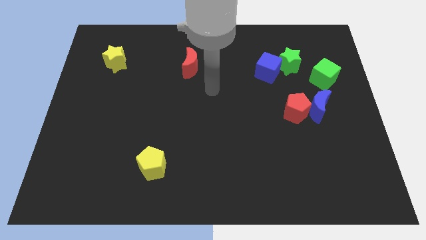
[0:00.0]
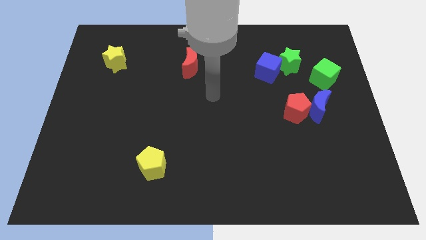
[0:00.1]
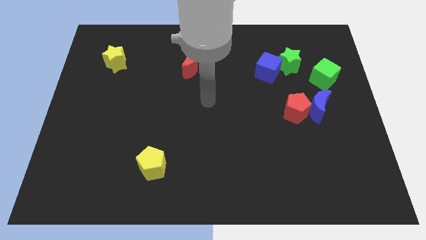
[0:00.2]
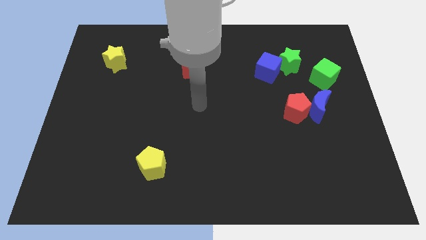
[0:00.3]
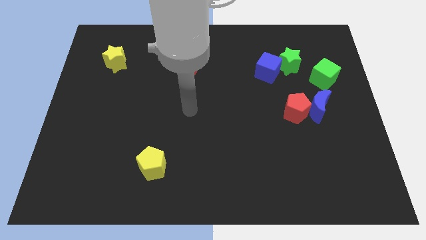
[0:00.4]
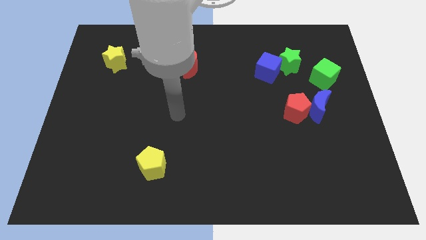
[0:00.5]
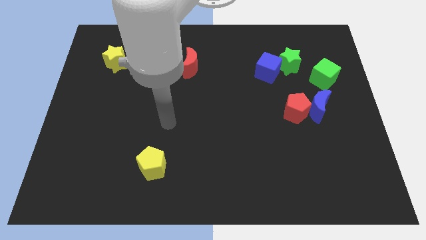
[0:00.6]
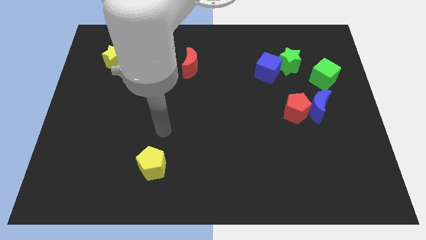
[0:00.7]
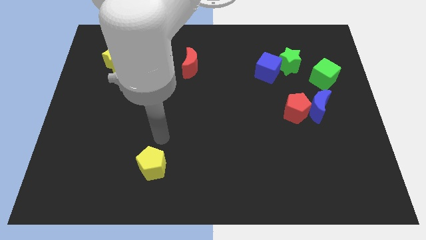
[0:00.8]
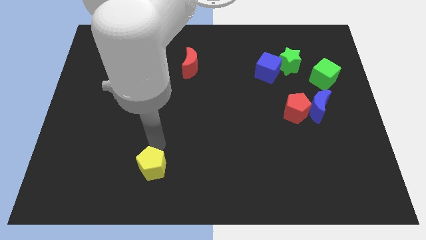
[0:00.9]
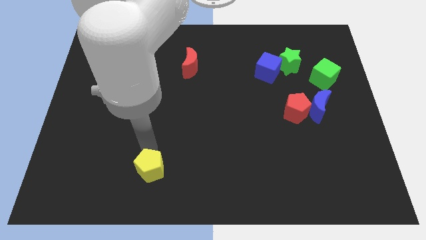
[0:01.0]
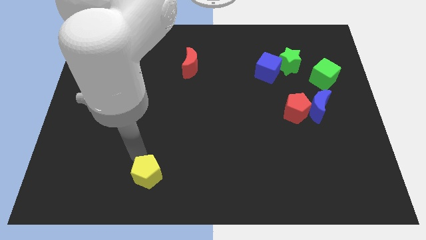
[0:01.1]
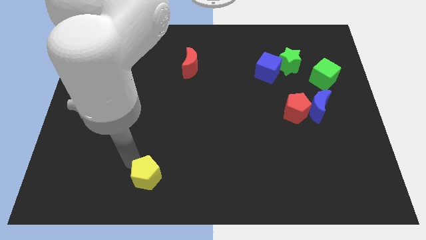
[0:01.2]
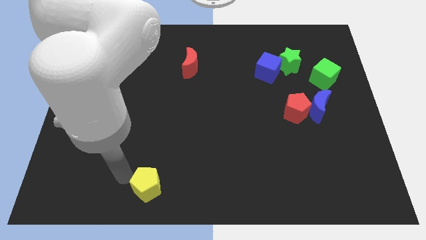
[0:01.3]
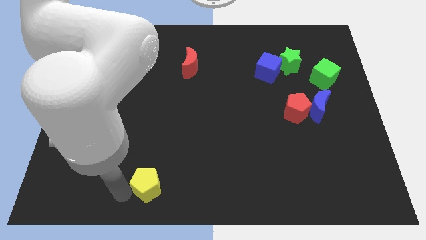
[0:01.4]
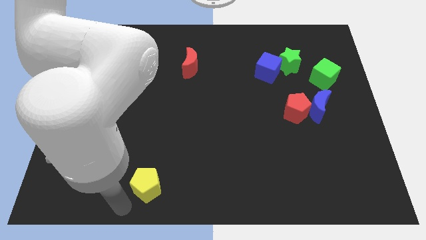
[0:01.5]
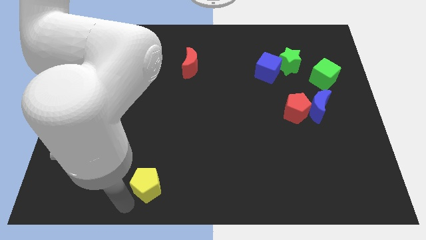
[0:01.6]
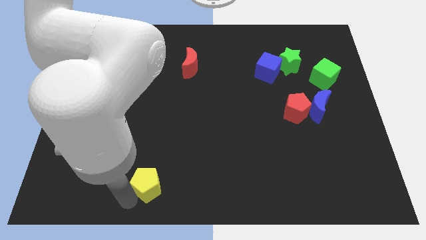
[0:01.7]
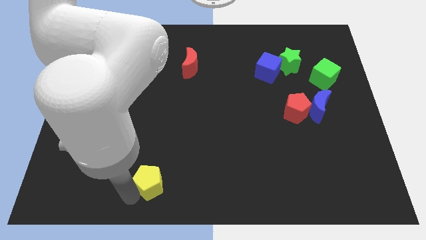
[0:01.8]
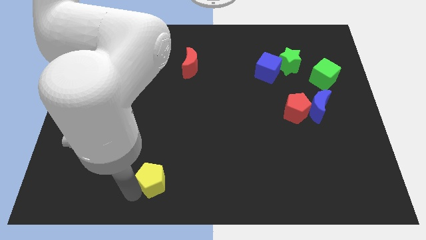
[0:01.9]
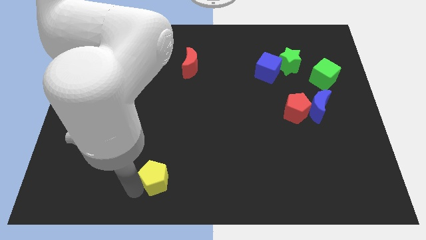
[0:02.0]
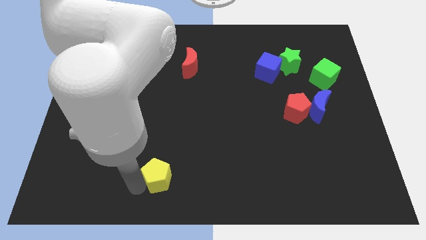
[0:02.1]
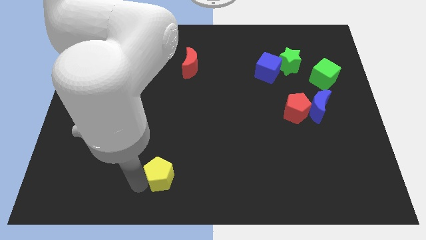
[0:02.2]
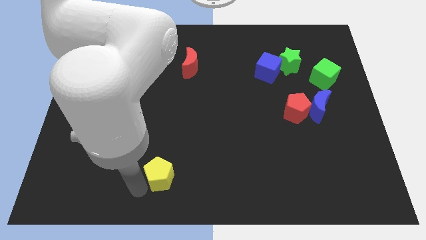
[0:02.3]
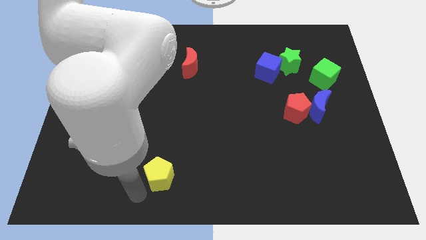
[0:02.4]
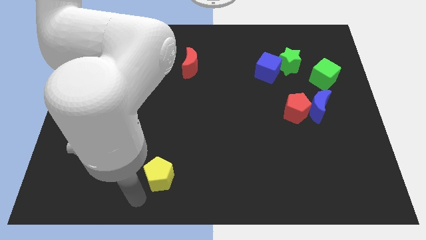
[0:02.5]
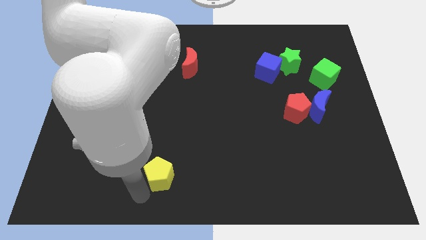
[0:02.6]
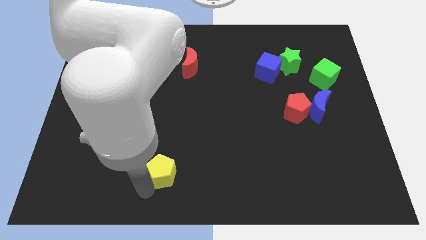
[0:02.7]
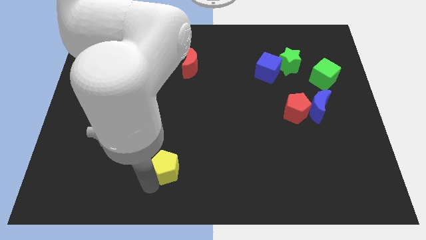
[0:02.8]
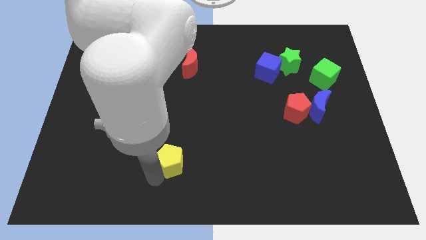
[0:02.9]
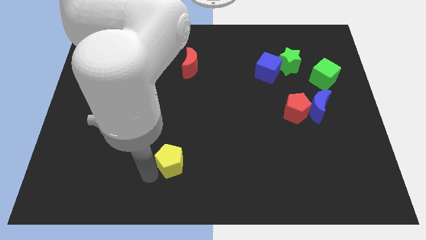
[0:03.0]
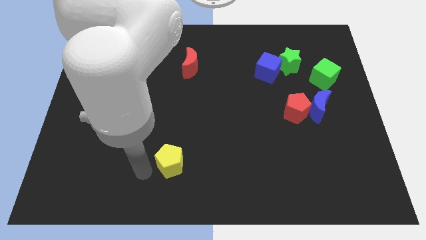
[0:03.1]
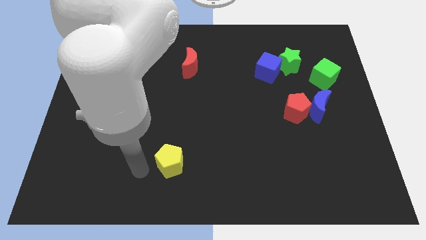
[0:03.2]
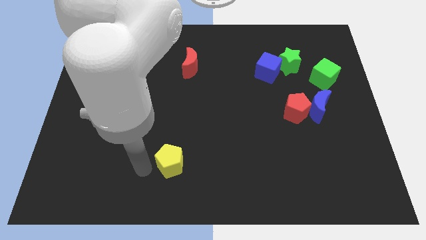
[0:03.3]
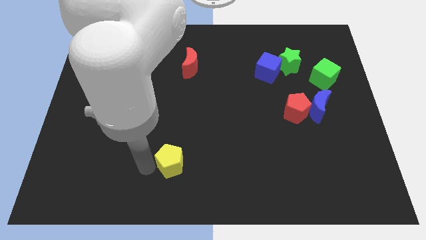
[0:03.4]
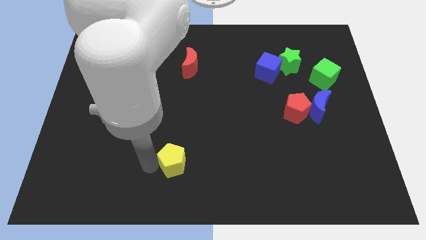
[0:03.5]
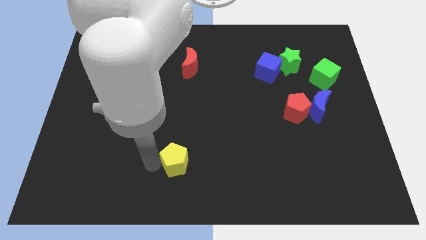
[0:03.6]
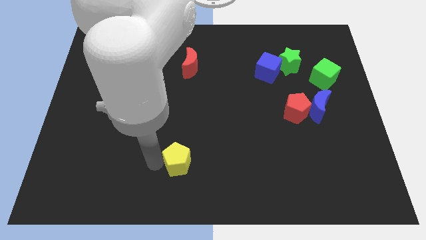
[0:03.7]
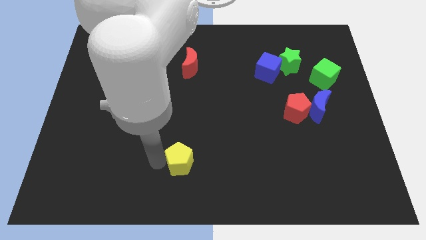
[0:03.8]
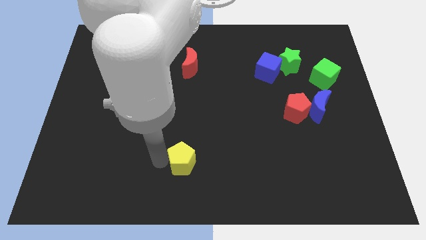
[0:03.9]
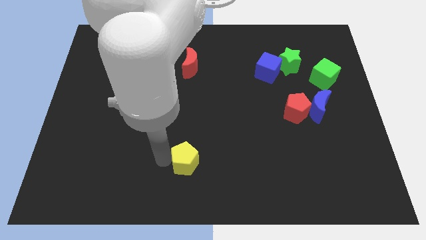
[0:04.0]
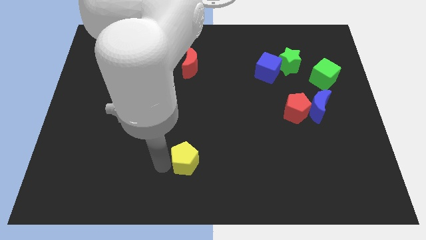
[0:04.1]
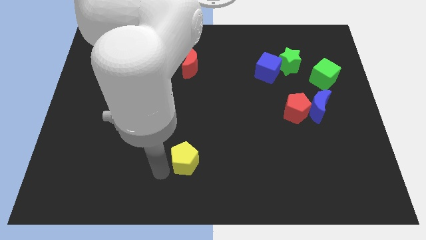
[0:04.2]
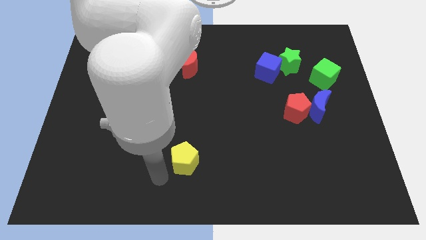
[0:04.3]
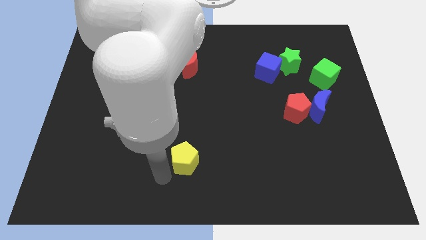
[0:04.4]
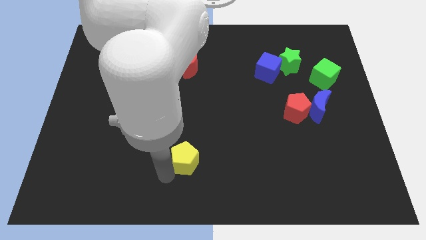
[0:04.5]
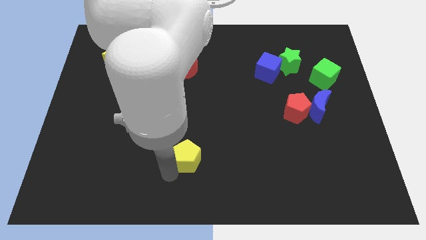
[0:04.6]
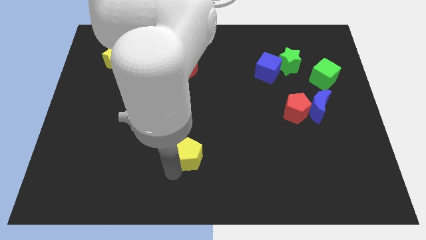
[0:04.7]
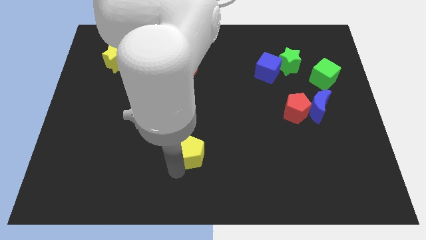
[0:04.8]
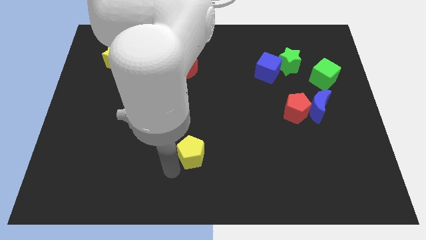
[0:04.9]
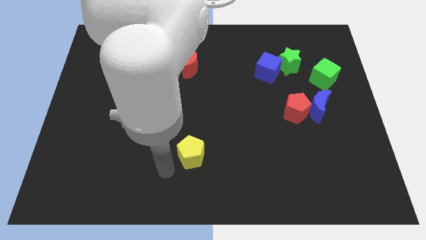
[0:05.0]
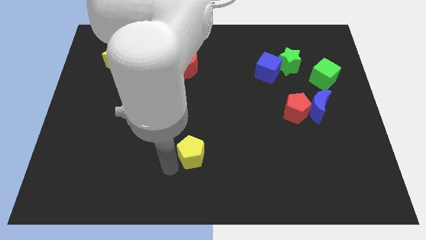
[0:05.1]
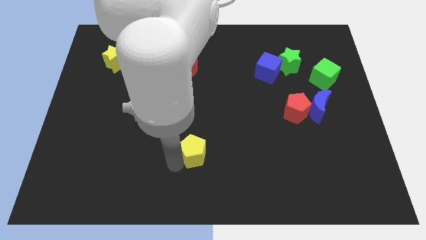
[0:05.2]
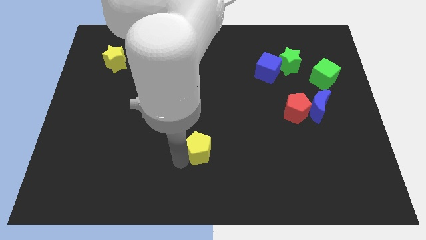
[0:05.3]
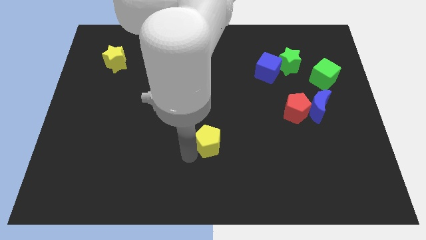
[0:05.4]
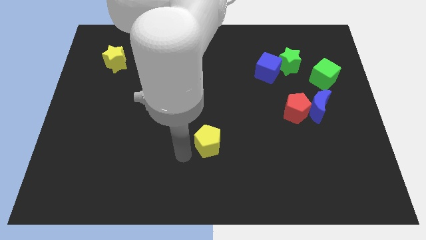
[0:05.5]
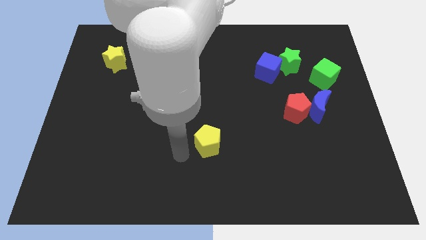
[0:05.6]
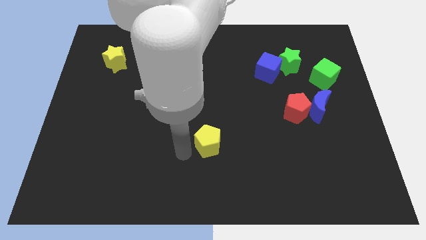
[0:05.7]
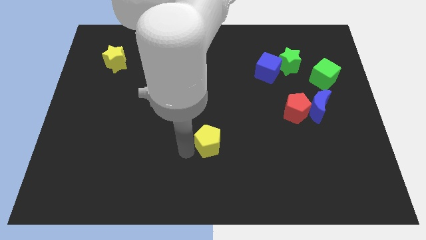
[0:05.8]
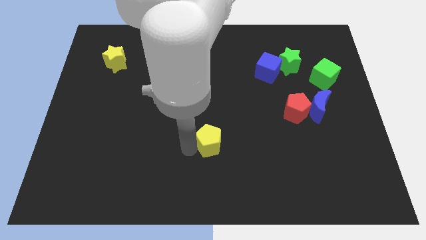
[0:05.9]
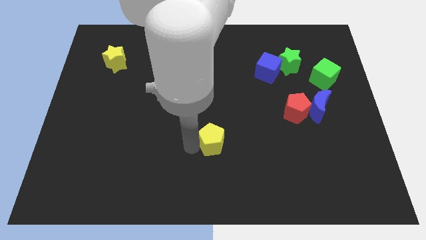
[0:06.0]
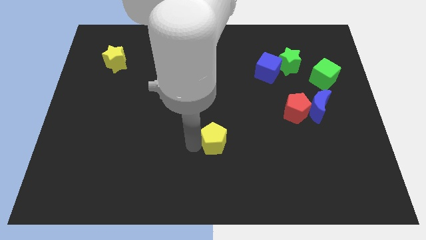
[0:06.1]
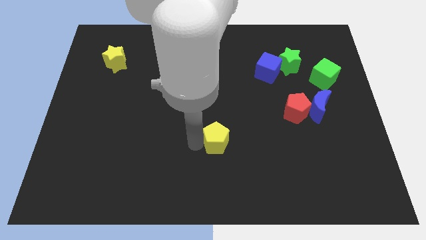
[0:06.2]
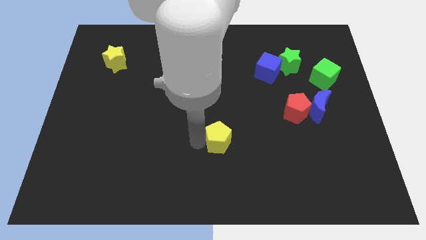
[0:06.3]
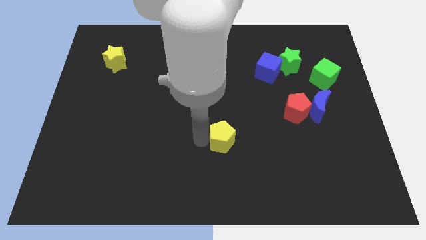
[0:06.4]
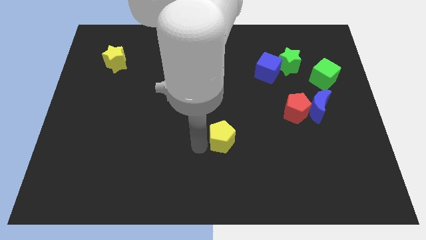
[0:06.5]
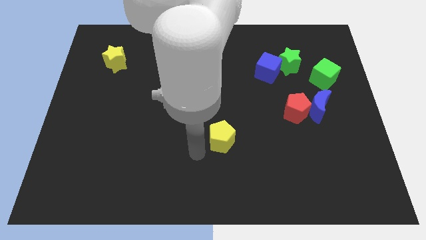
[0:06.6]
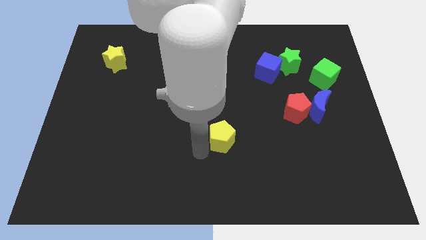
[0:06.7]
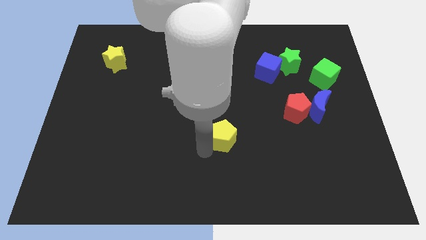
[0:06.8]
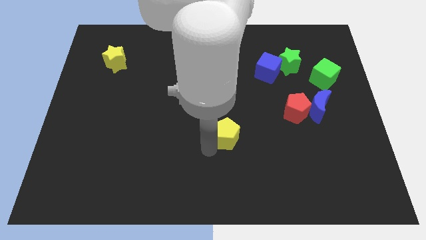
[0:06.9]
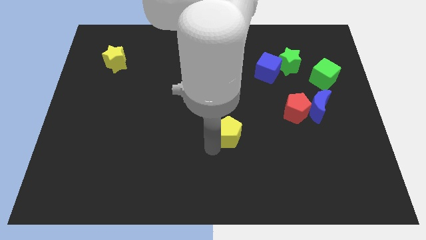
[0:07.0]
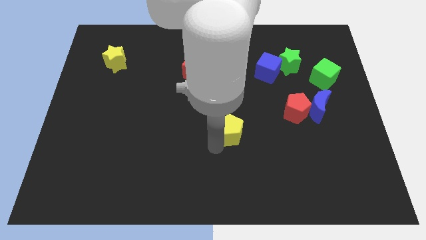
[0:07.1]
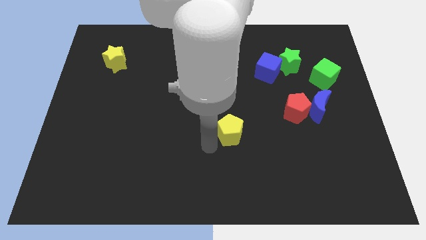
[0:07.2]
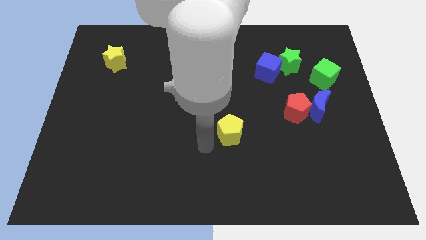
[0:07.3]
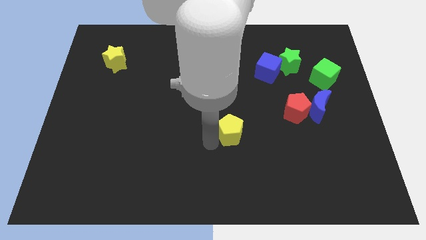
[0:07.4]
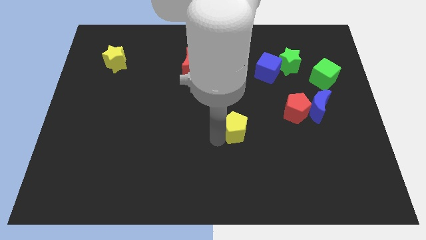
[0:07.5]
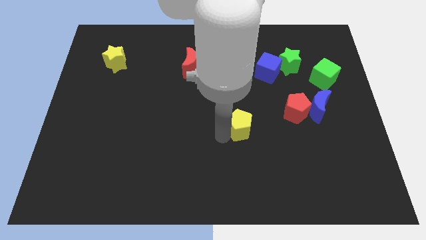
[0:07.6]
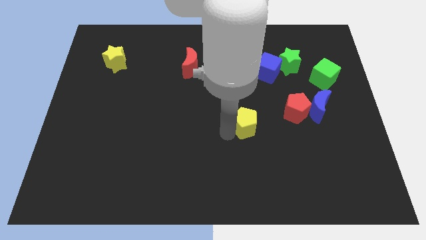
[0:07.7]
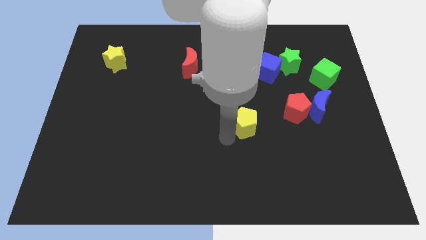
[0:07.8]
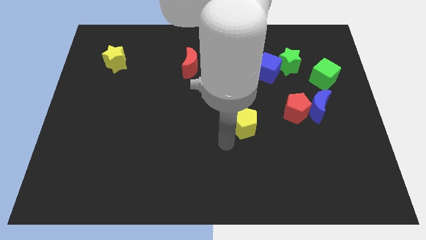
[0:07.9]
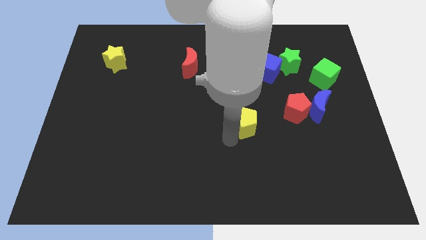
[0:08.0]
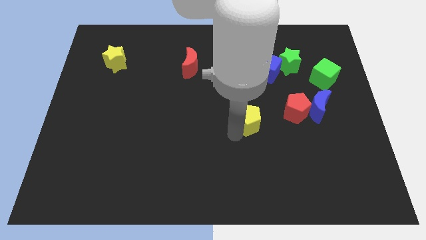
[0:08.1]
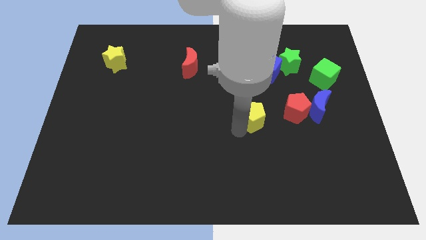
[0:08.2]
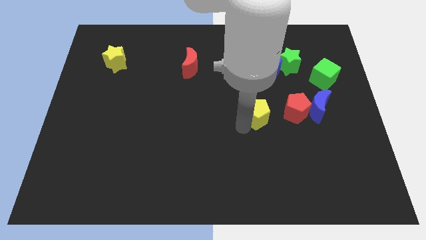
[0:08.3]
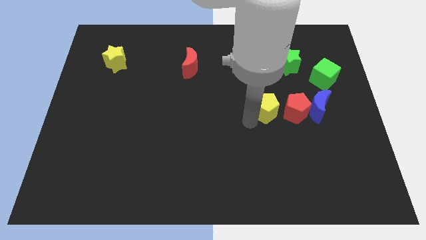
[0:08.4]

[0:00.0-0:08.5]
put the yellow pentagon to the top left side of the red pentagon
